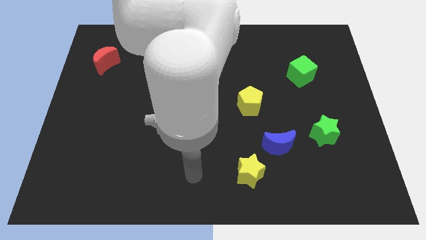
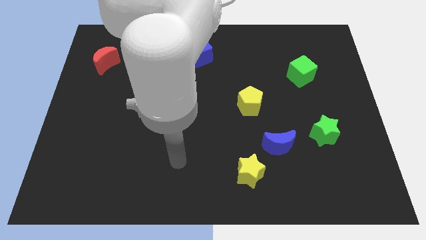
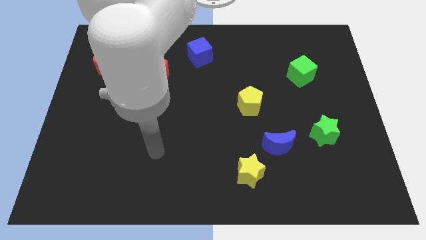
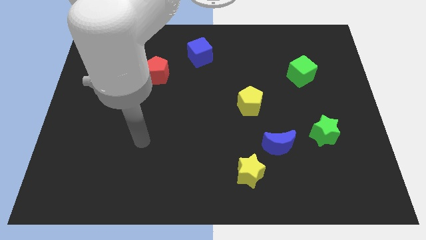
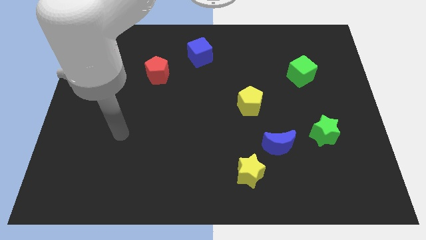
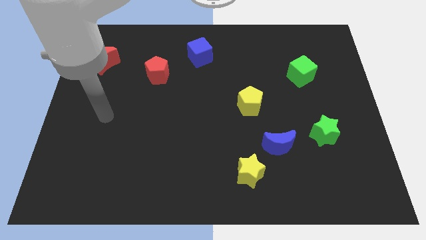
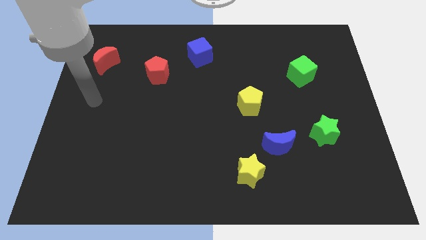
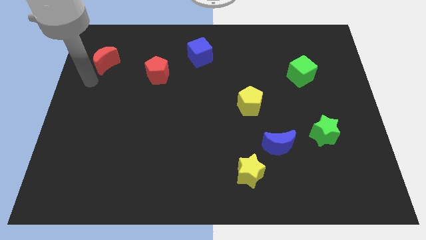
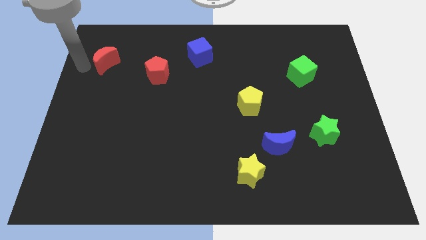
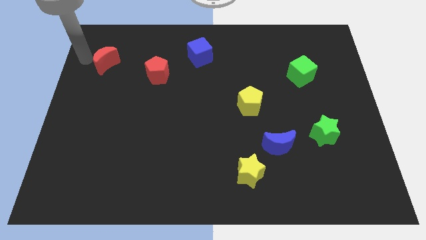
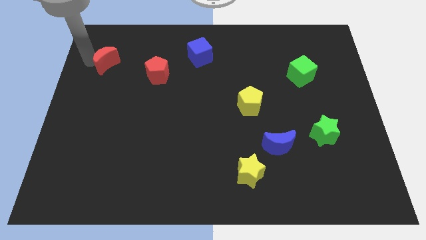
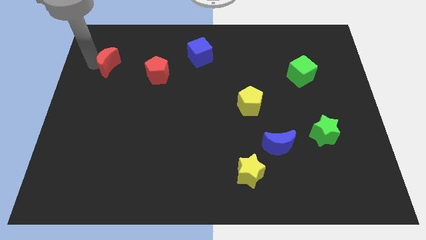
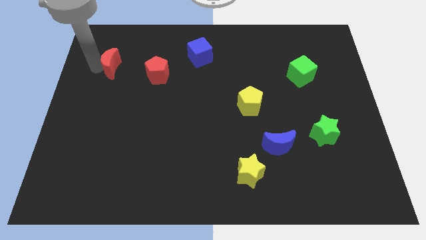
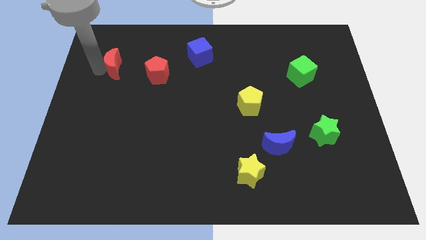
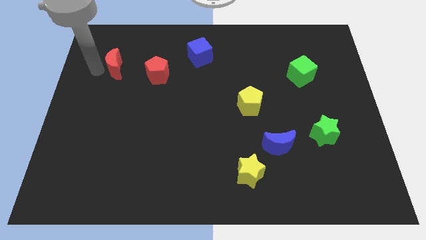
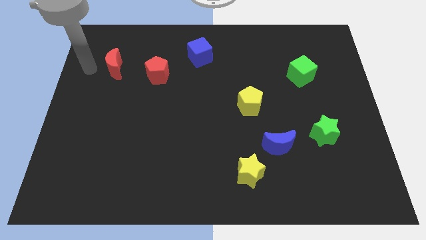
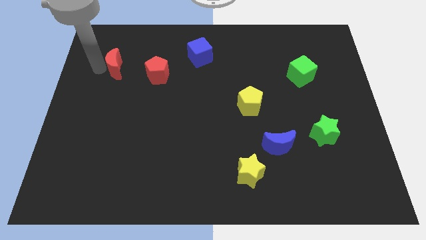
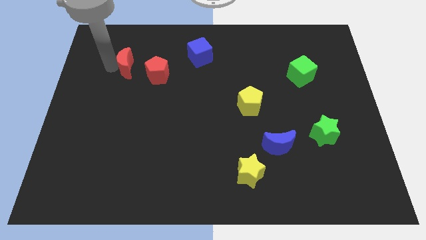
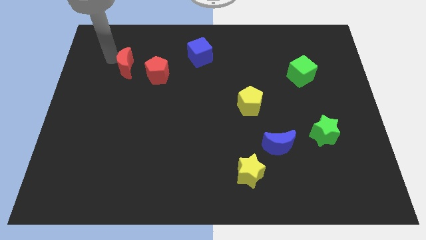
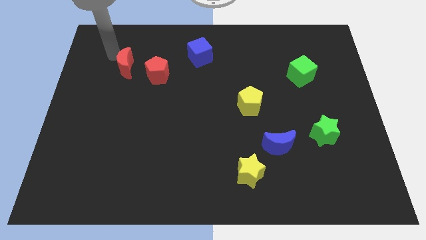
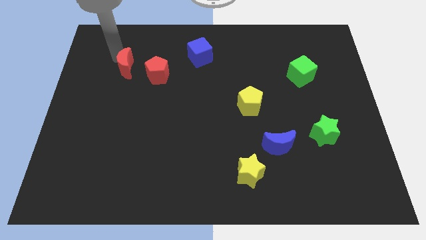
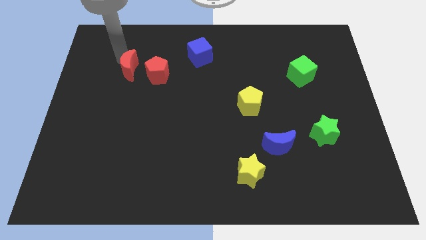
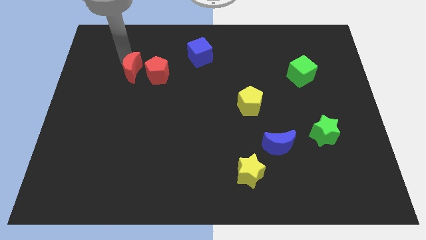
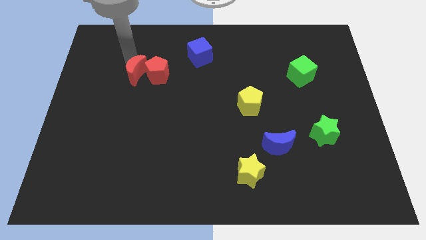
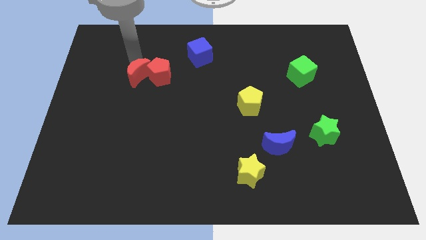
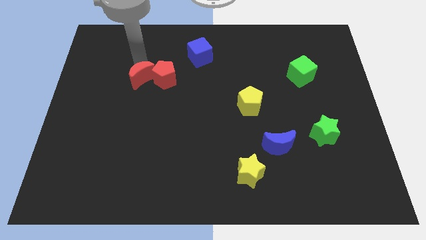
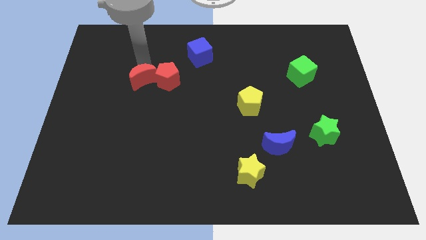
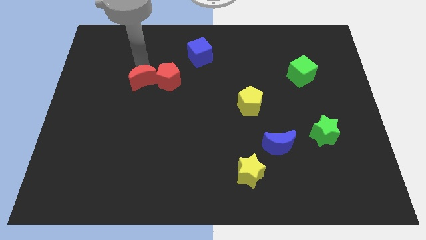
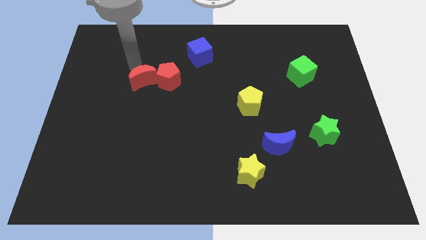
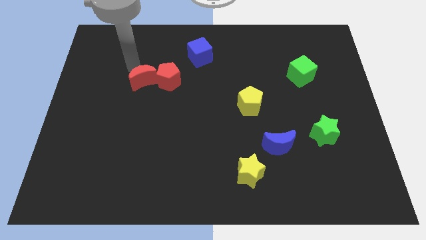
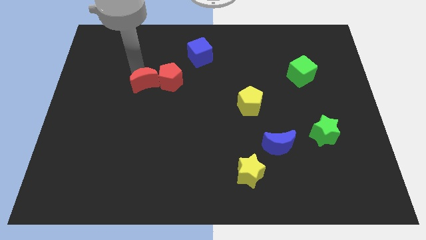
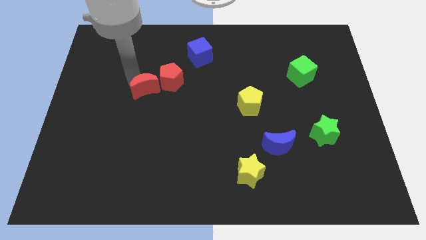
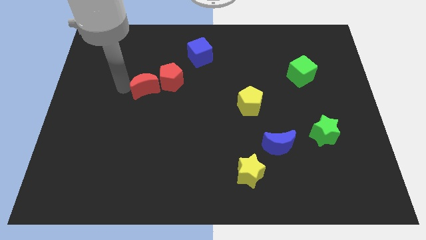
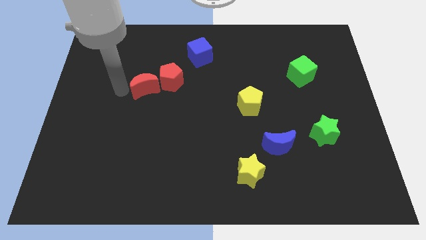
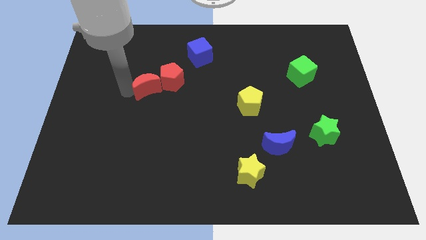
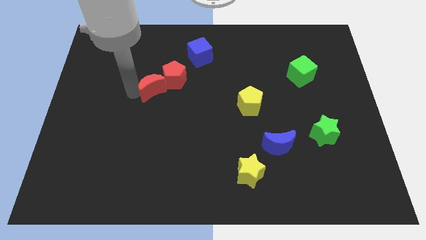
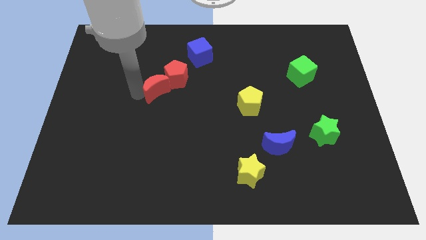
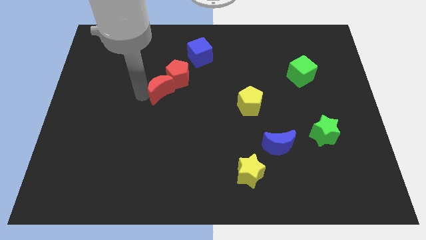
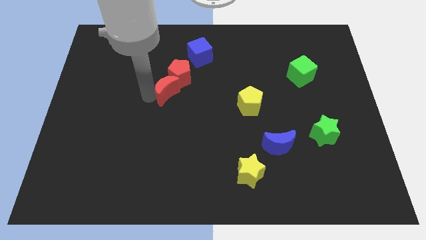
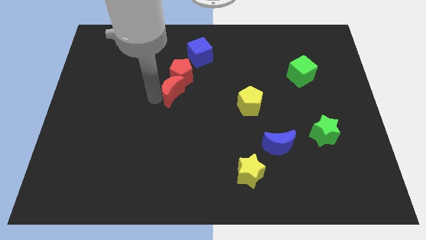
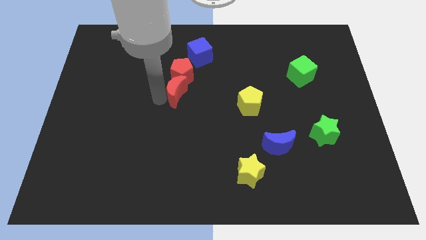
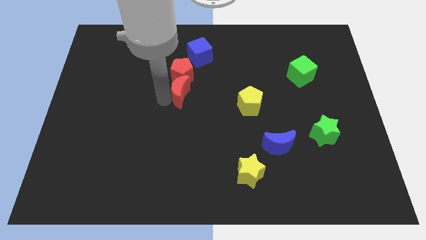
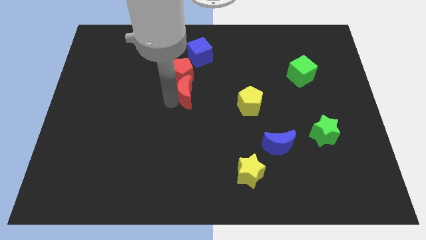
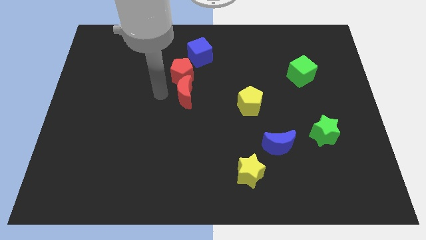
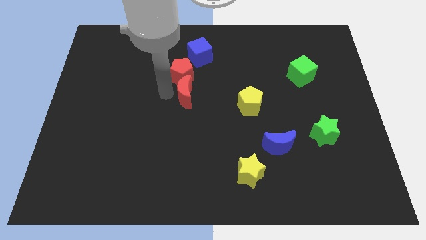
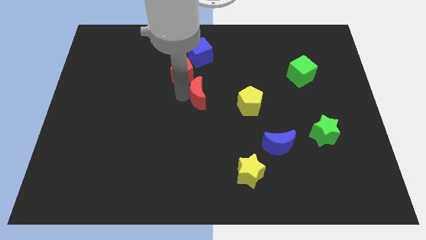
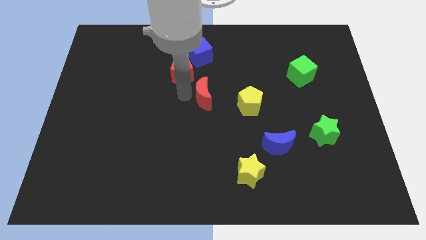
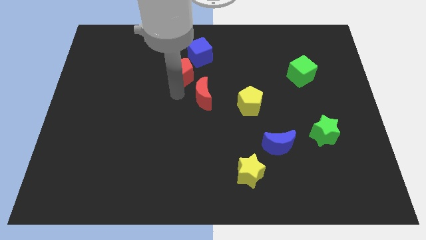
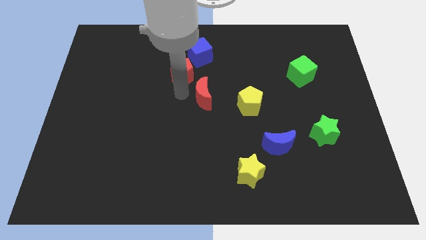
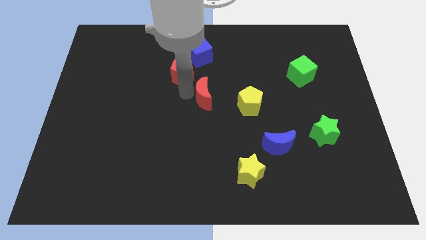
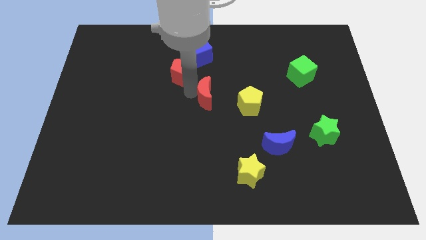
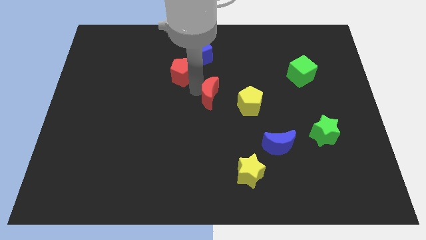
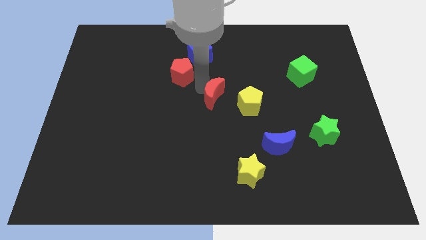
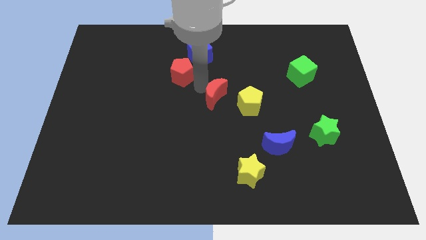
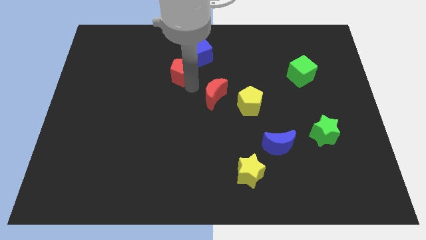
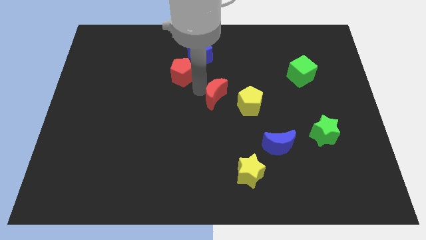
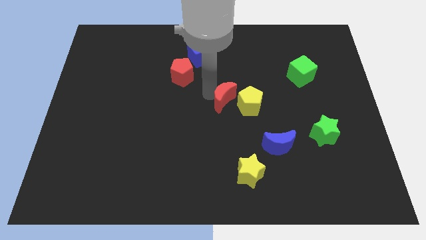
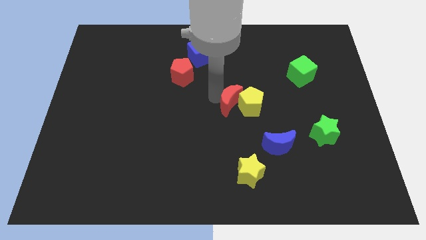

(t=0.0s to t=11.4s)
slide the red moon towards the yellow pentagon

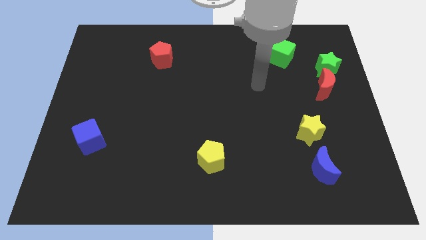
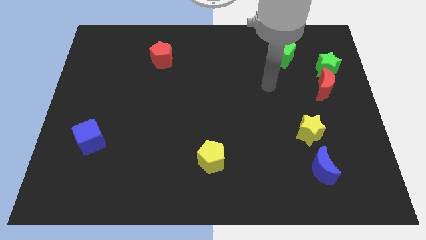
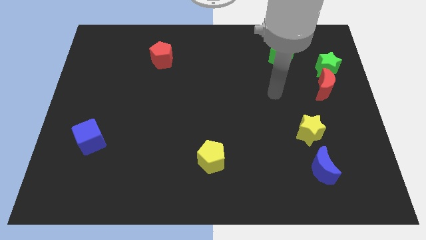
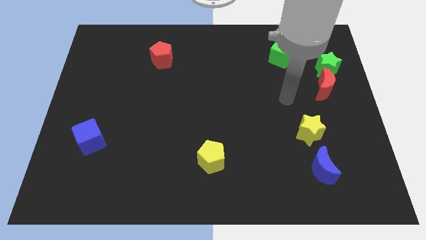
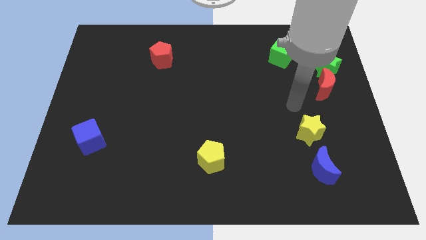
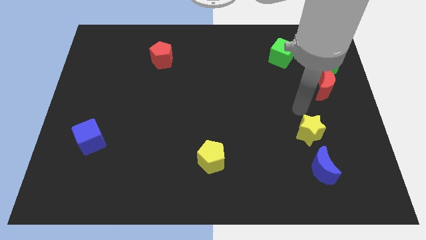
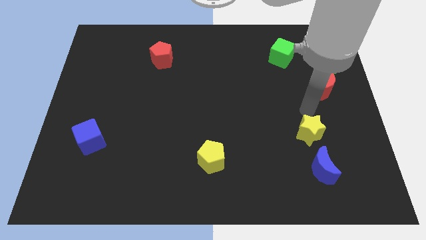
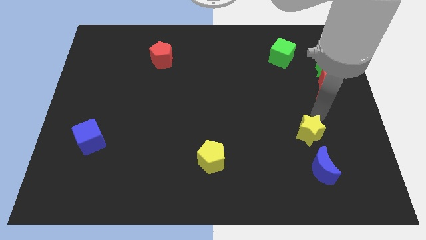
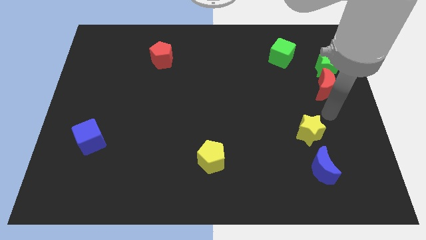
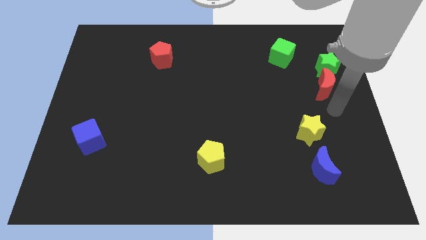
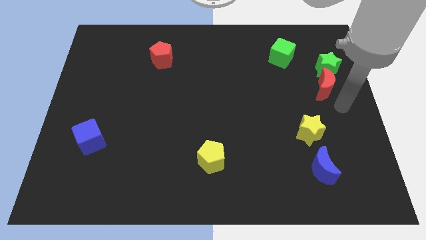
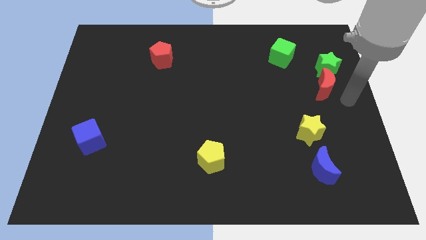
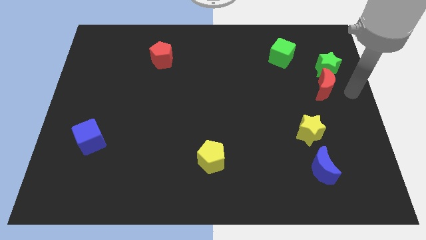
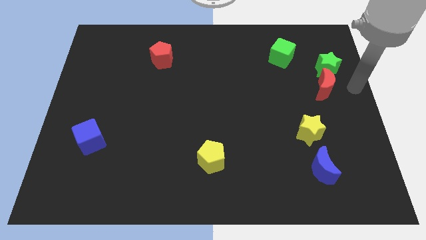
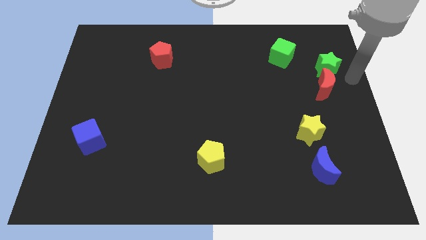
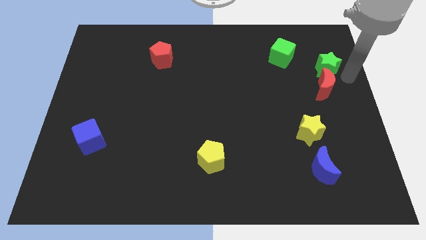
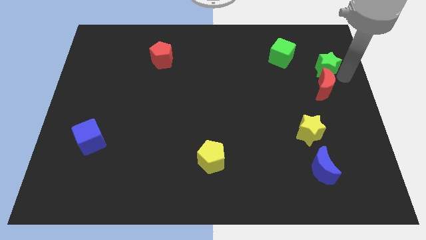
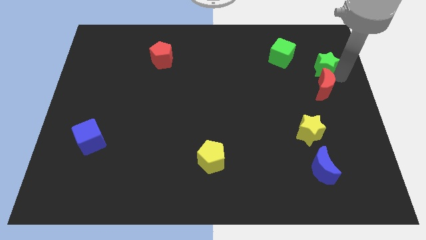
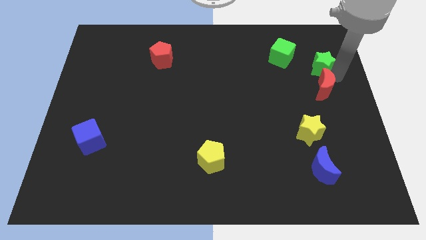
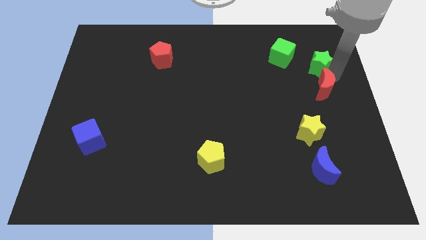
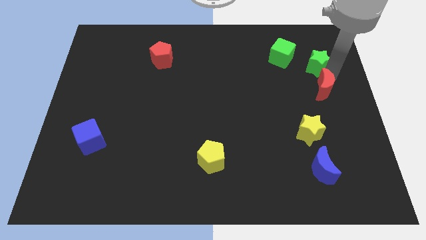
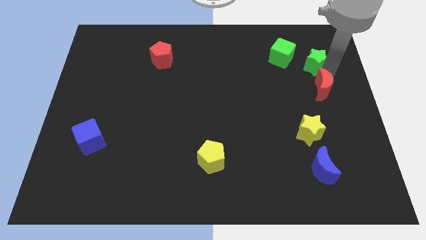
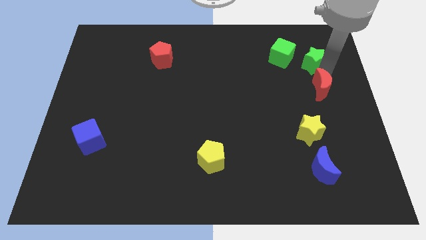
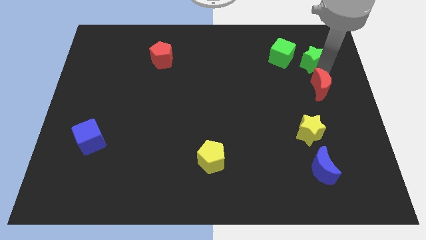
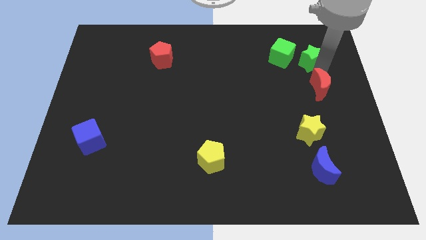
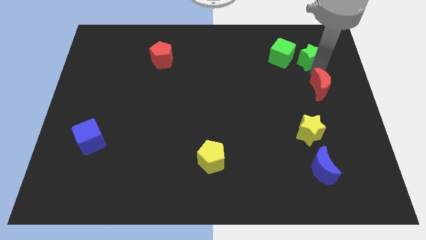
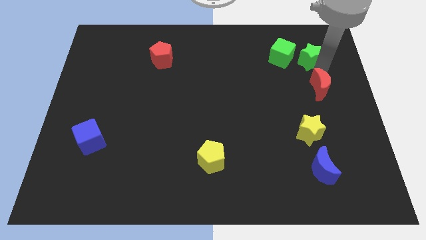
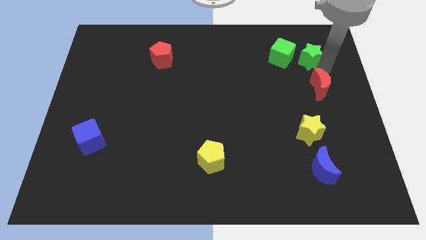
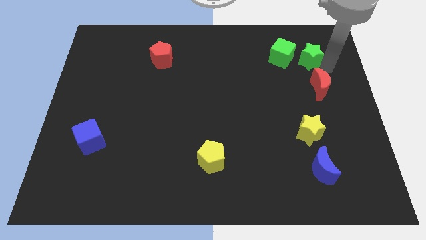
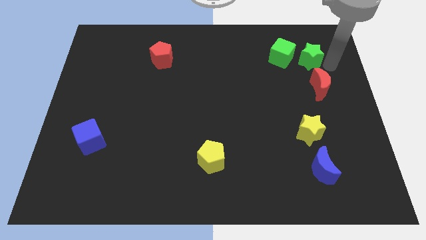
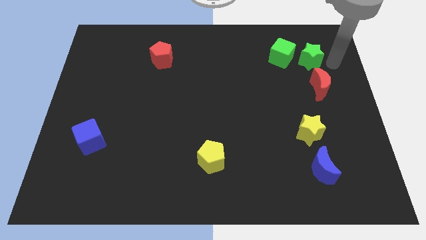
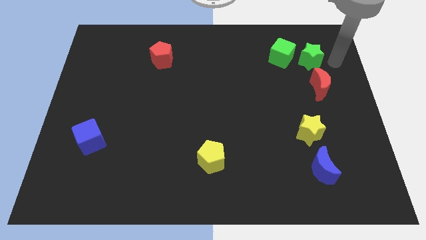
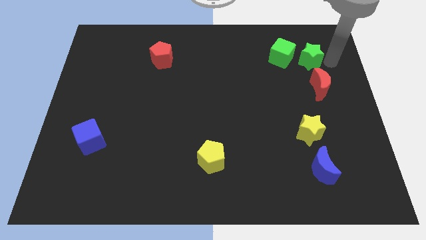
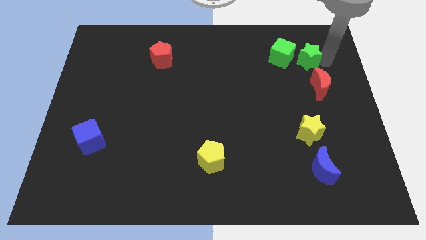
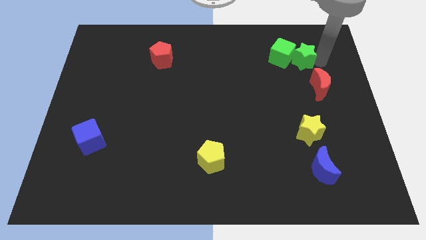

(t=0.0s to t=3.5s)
move the green star towards the green cube
